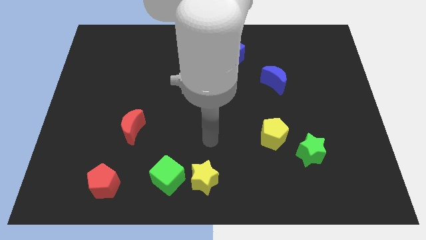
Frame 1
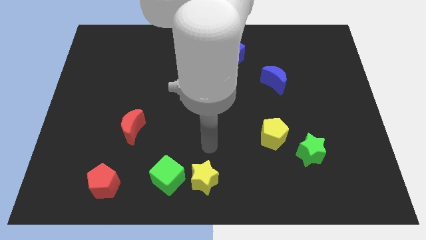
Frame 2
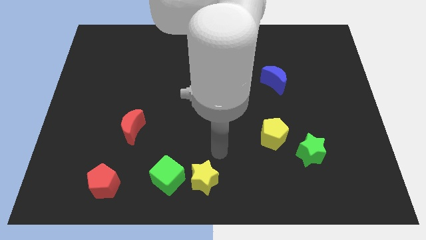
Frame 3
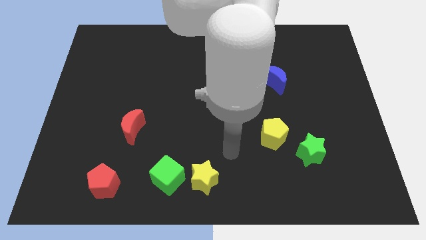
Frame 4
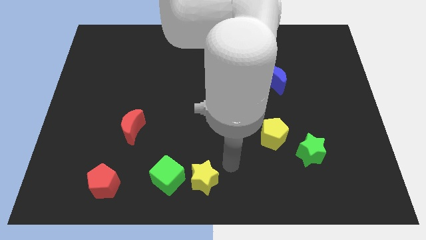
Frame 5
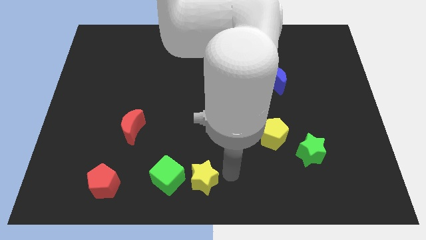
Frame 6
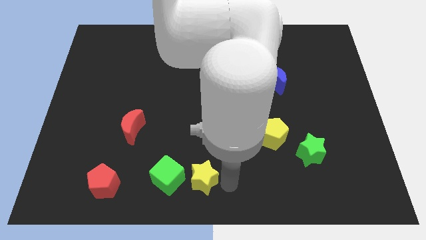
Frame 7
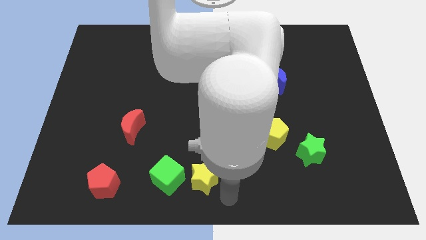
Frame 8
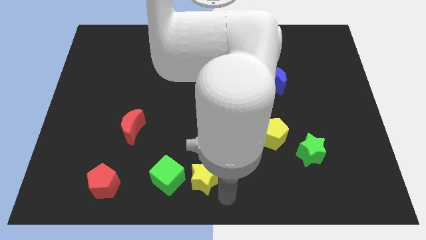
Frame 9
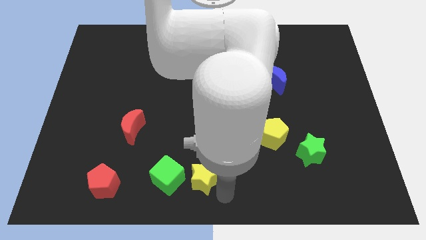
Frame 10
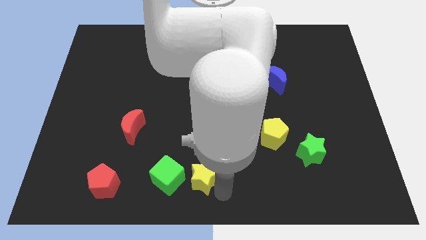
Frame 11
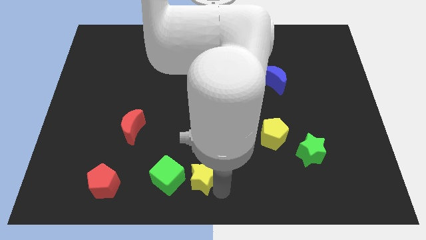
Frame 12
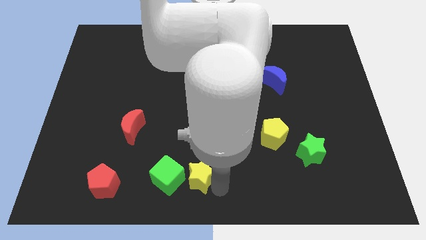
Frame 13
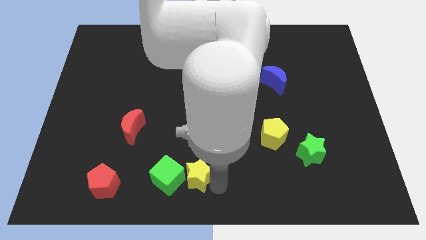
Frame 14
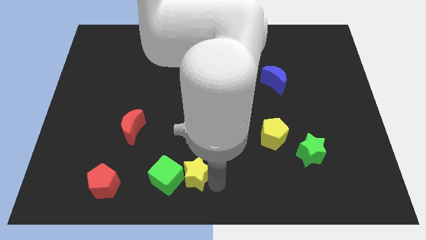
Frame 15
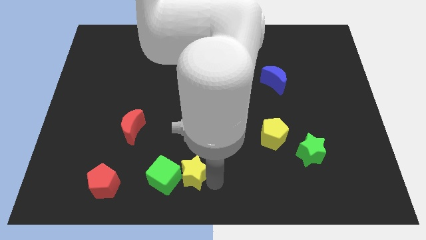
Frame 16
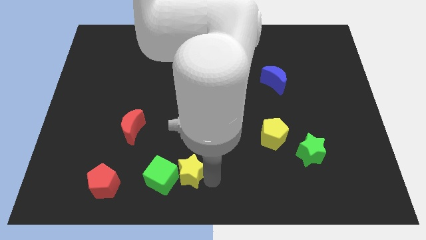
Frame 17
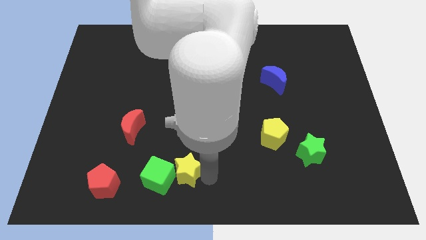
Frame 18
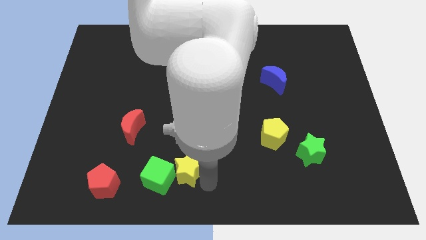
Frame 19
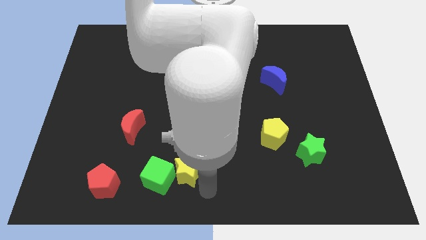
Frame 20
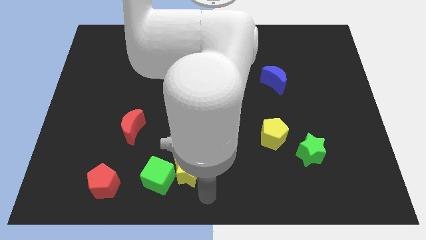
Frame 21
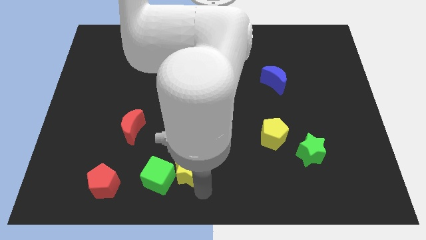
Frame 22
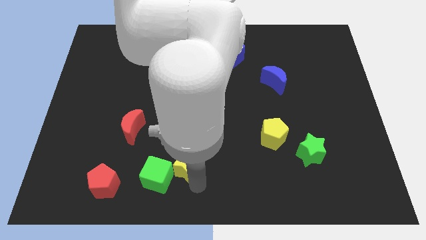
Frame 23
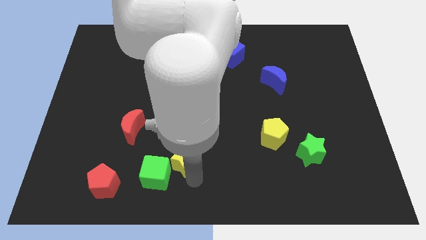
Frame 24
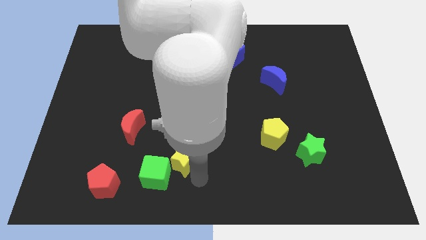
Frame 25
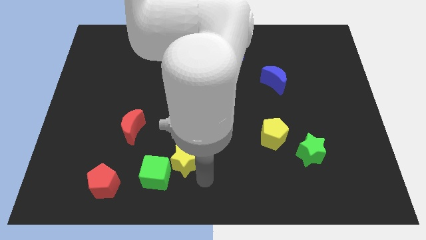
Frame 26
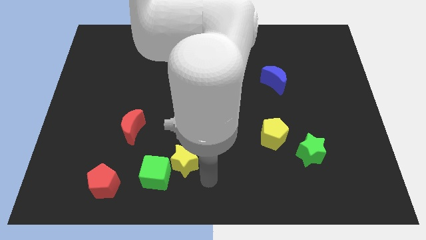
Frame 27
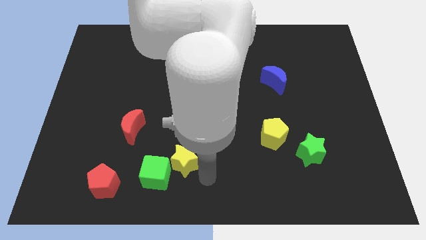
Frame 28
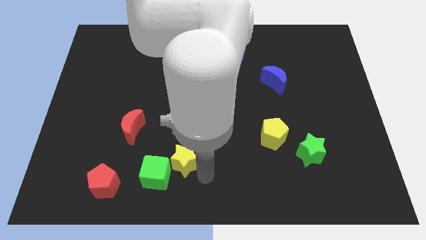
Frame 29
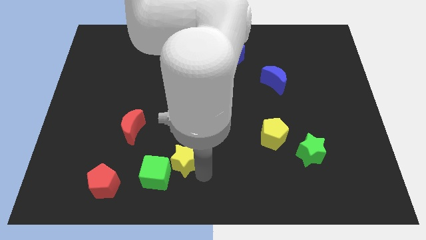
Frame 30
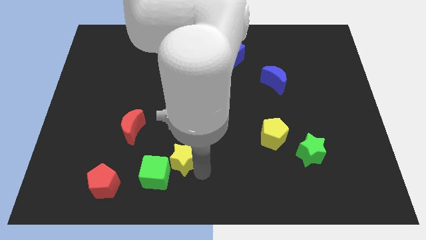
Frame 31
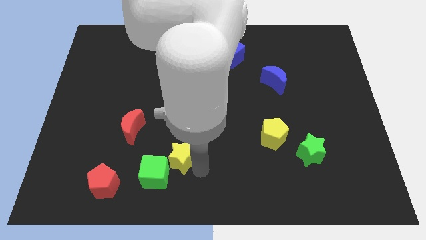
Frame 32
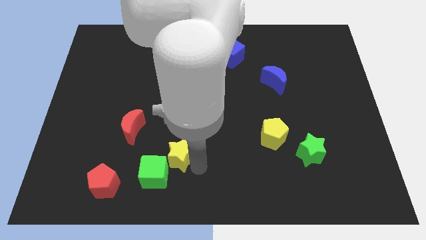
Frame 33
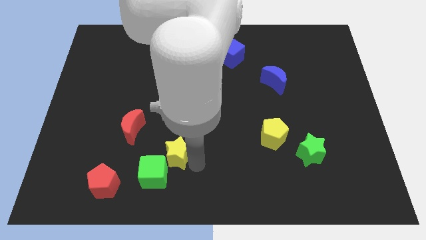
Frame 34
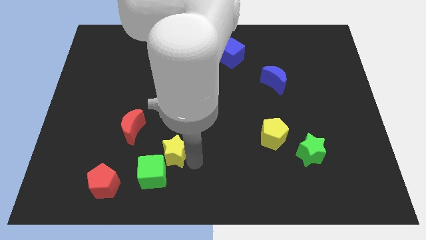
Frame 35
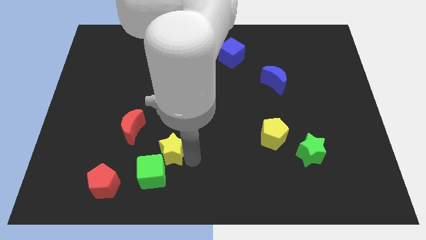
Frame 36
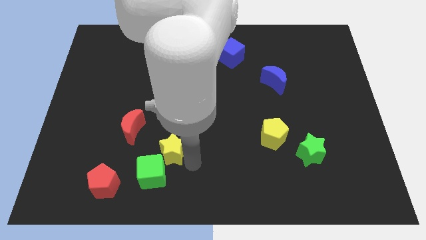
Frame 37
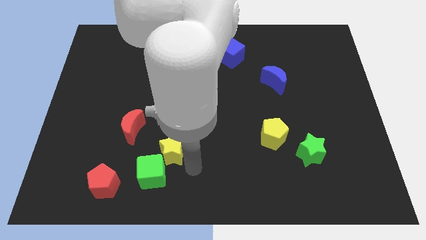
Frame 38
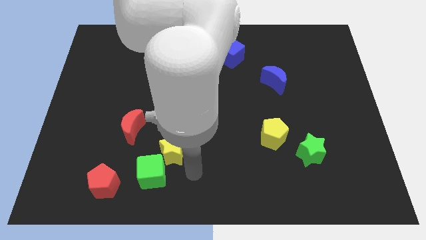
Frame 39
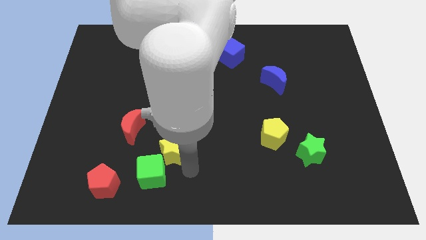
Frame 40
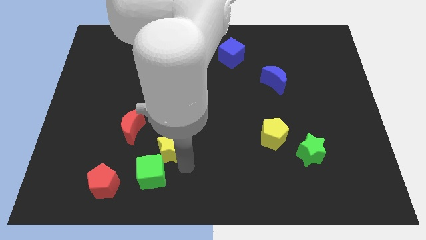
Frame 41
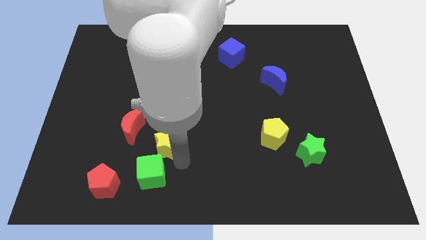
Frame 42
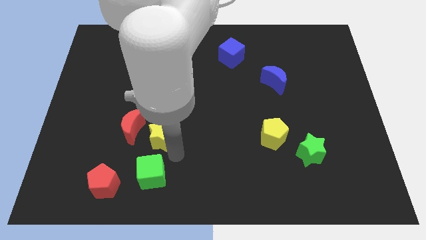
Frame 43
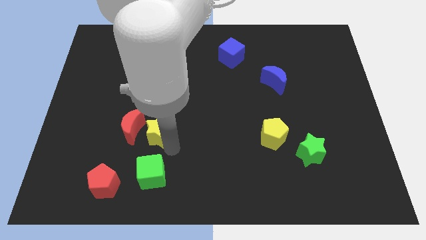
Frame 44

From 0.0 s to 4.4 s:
move the yellow star close to the red moon

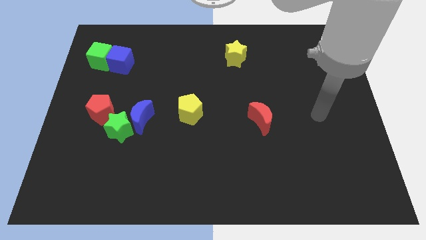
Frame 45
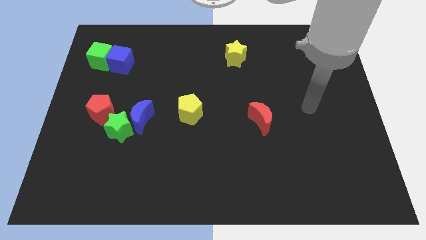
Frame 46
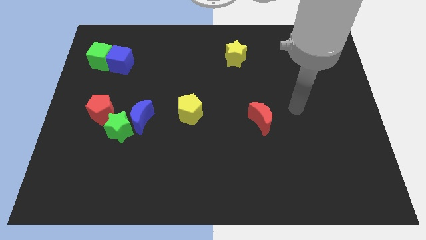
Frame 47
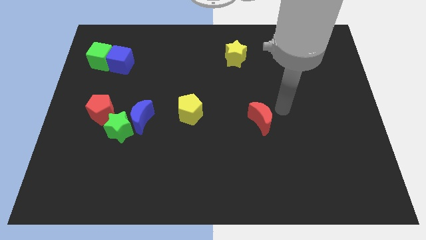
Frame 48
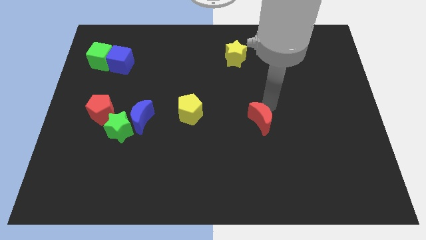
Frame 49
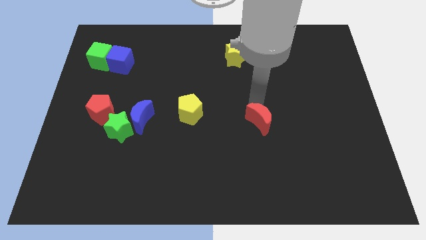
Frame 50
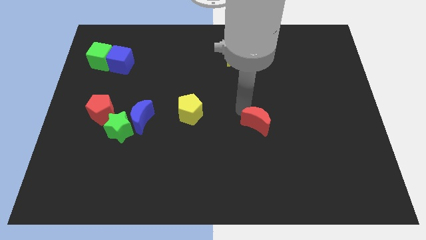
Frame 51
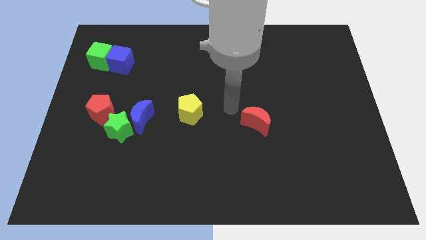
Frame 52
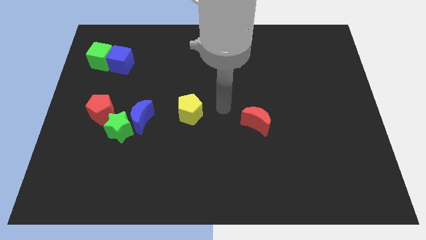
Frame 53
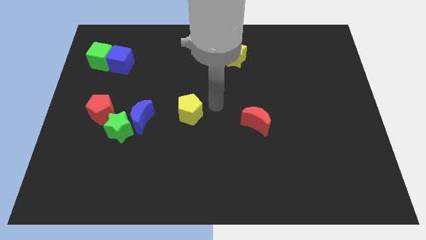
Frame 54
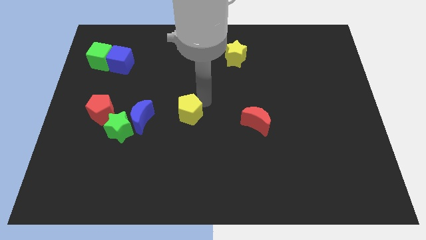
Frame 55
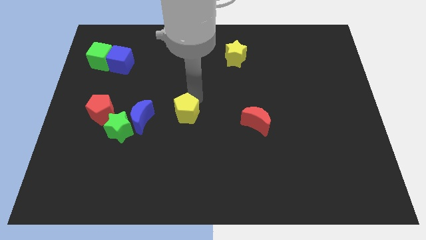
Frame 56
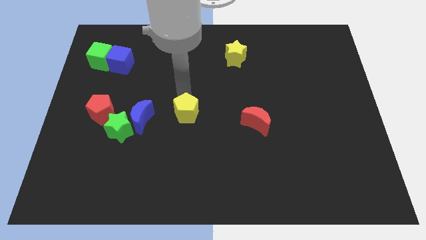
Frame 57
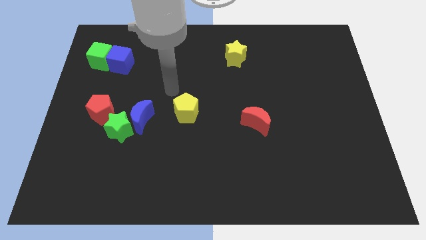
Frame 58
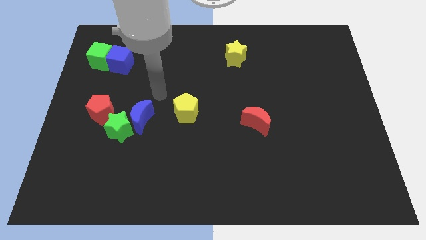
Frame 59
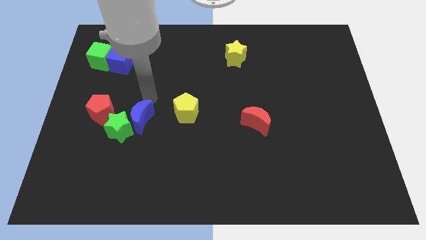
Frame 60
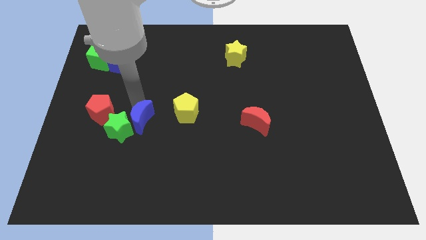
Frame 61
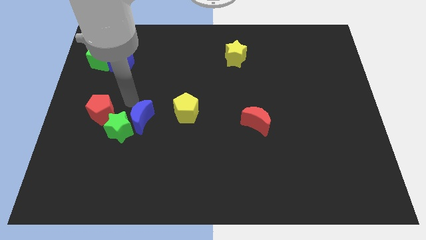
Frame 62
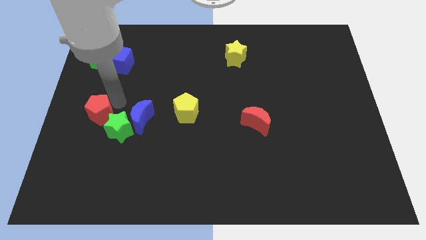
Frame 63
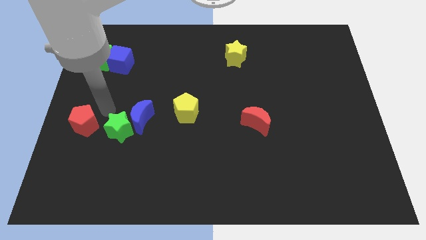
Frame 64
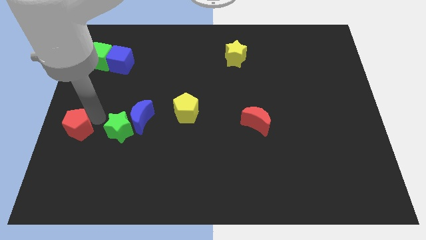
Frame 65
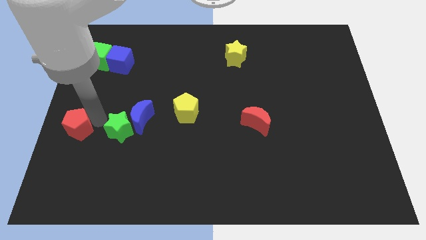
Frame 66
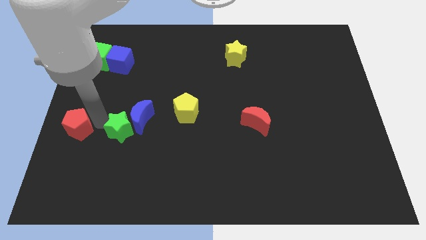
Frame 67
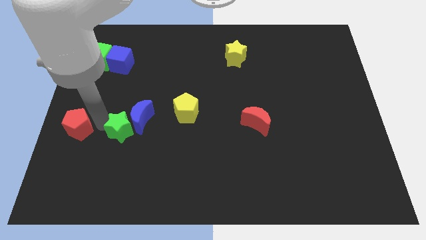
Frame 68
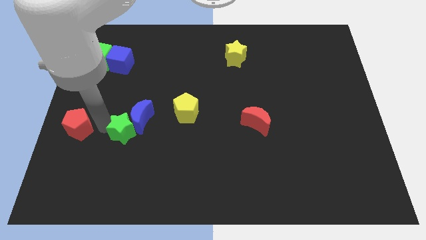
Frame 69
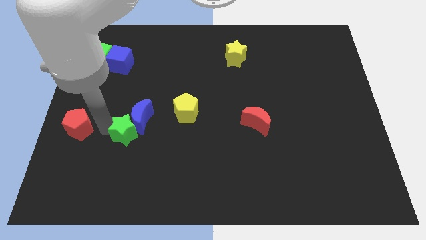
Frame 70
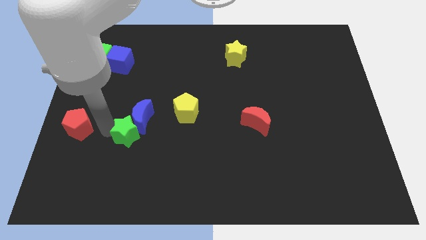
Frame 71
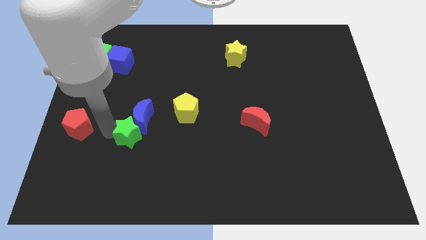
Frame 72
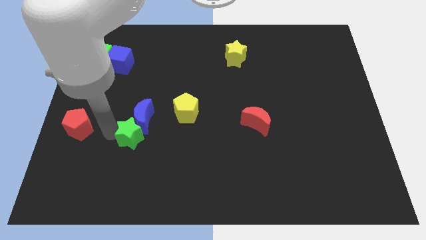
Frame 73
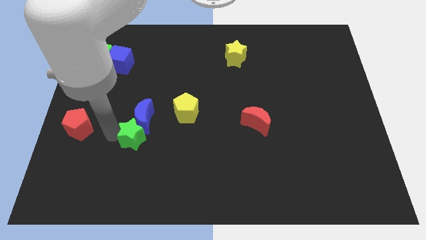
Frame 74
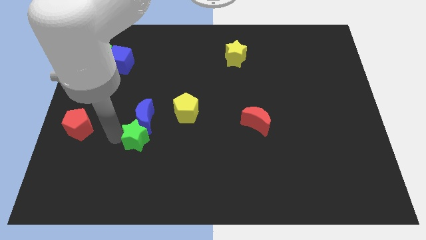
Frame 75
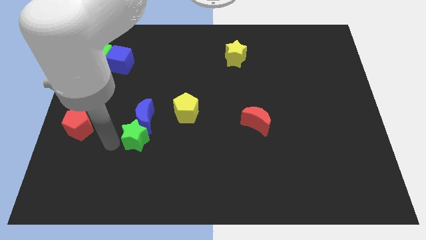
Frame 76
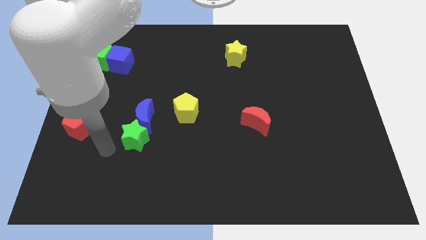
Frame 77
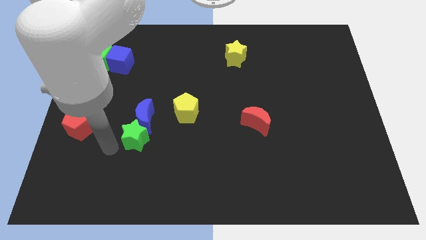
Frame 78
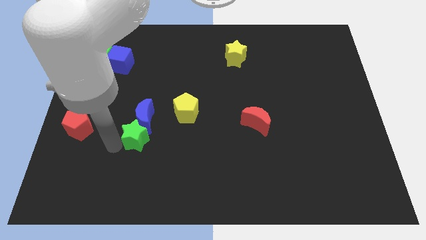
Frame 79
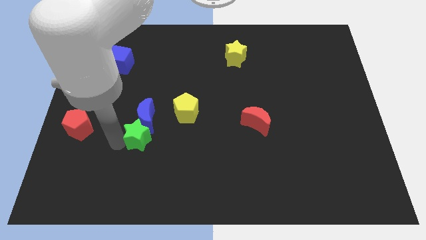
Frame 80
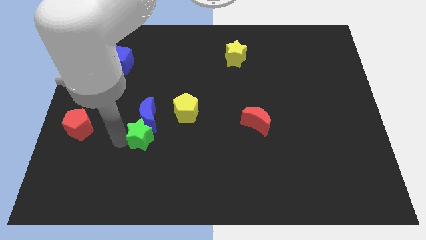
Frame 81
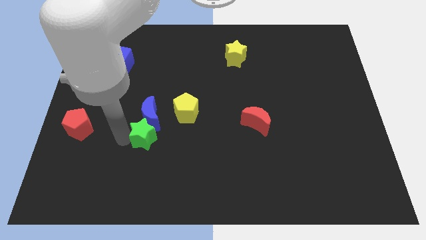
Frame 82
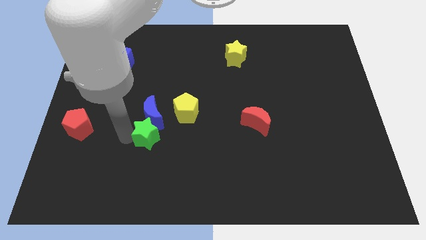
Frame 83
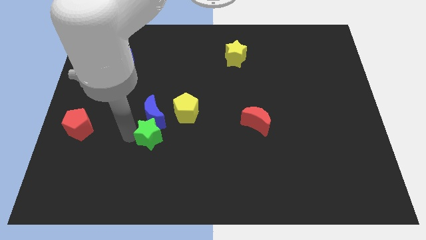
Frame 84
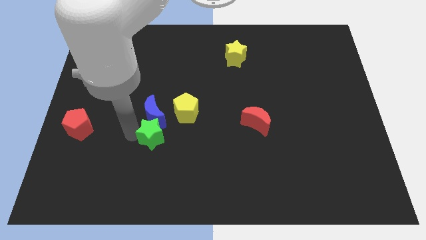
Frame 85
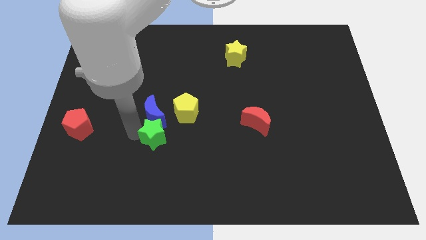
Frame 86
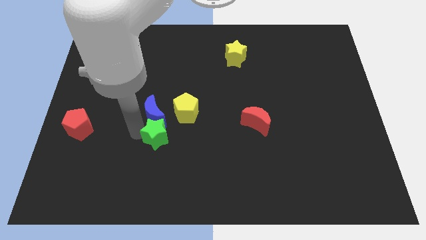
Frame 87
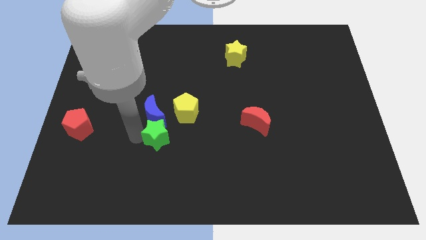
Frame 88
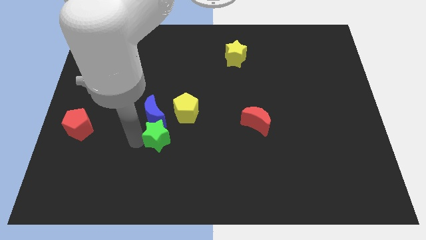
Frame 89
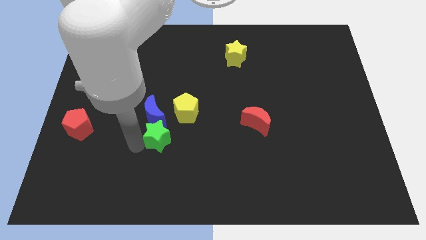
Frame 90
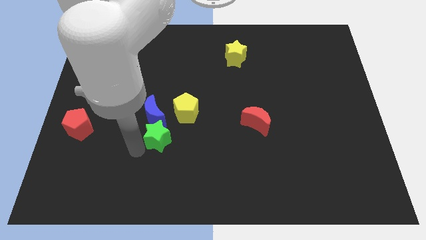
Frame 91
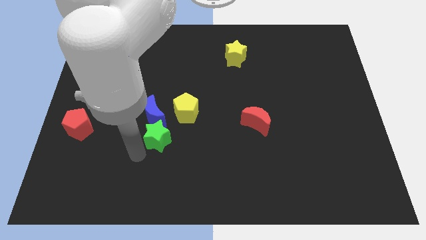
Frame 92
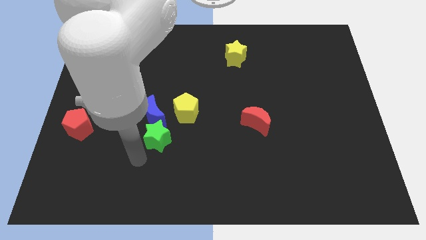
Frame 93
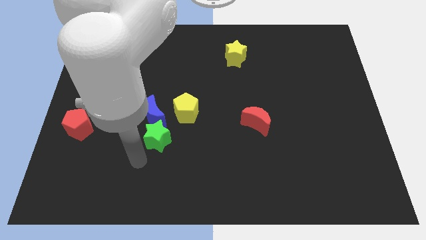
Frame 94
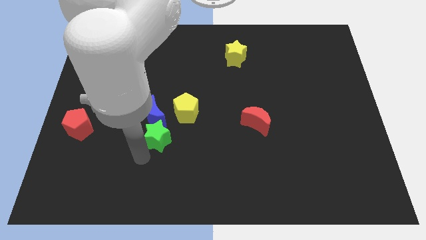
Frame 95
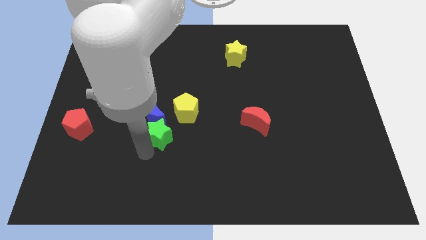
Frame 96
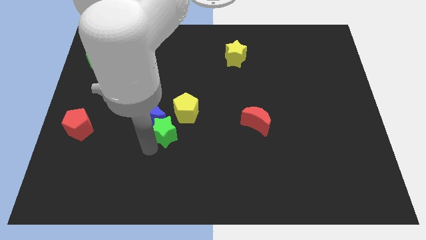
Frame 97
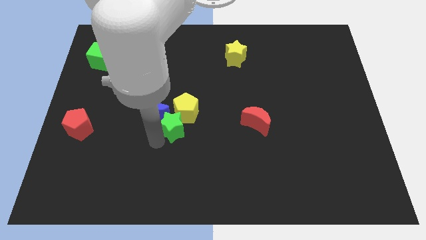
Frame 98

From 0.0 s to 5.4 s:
push the green star next to the yellow pentagon
